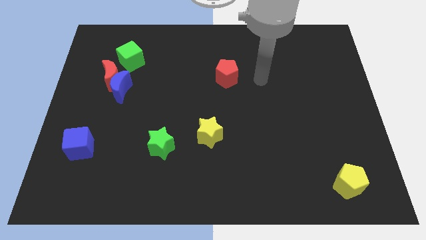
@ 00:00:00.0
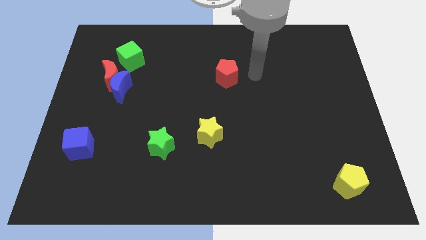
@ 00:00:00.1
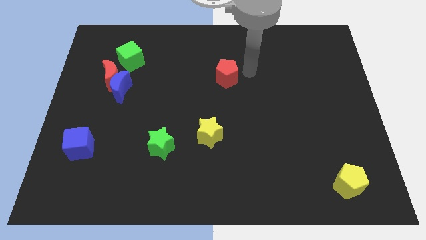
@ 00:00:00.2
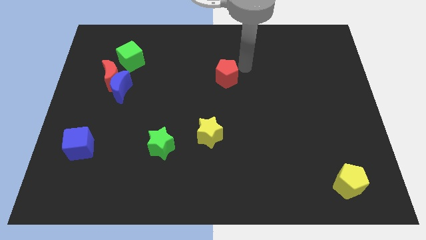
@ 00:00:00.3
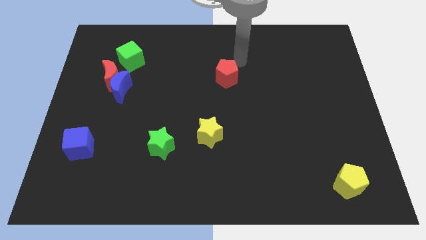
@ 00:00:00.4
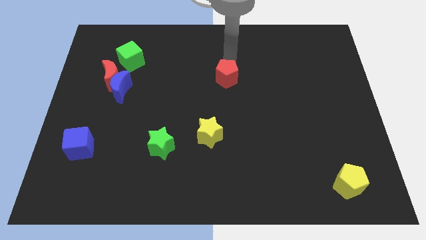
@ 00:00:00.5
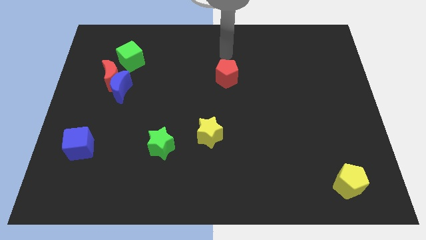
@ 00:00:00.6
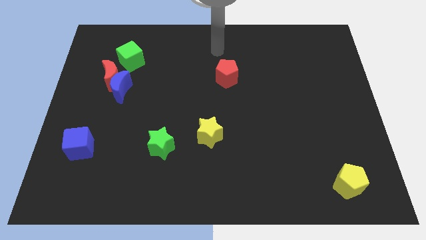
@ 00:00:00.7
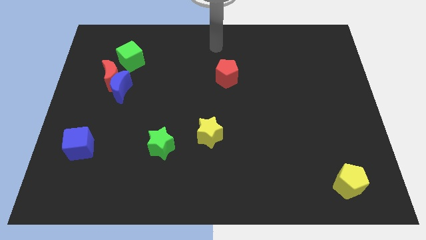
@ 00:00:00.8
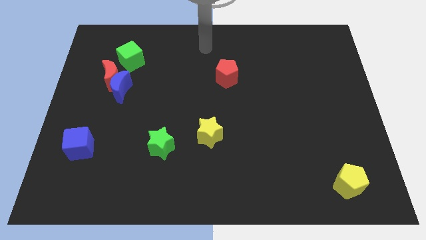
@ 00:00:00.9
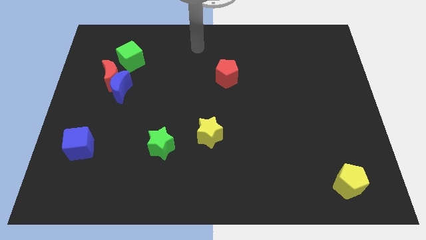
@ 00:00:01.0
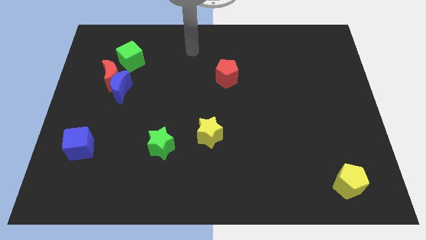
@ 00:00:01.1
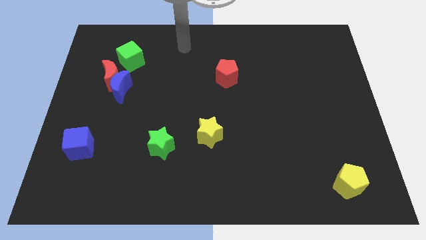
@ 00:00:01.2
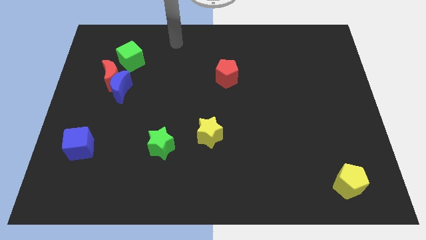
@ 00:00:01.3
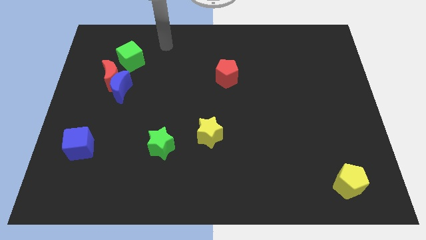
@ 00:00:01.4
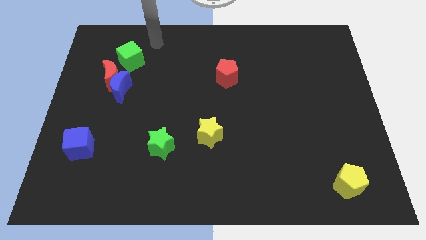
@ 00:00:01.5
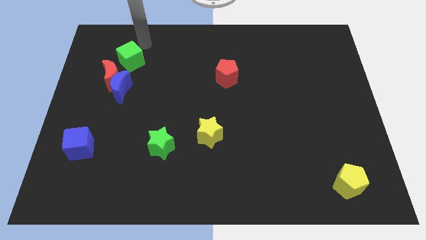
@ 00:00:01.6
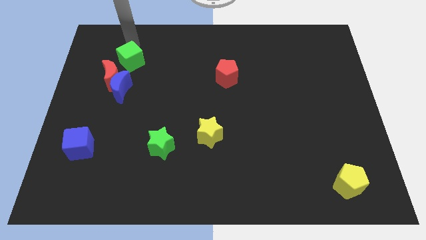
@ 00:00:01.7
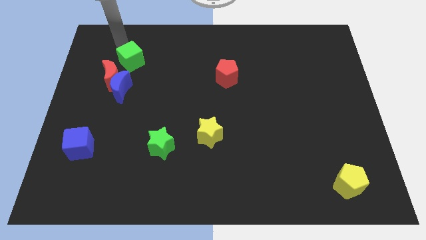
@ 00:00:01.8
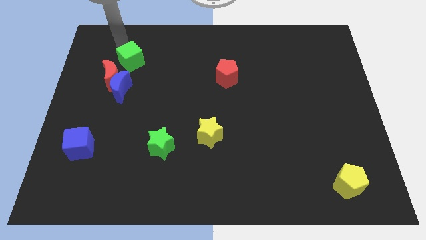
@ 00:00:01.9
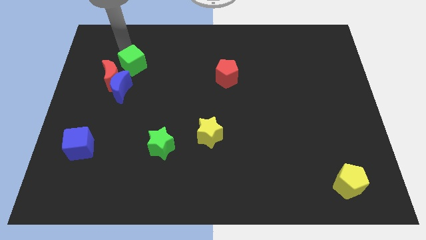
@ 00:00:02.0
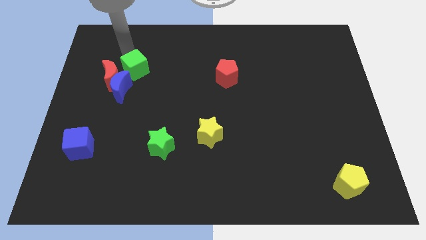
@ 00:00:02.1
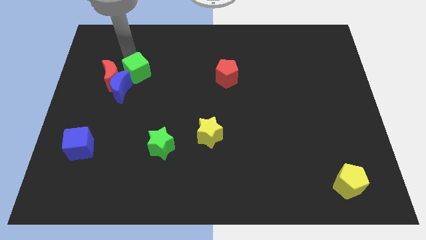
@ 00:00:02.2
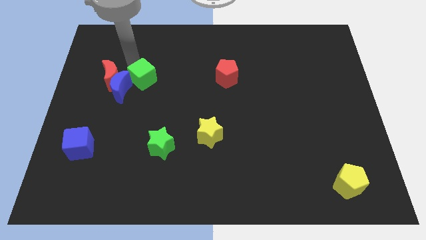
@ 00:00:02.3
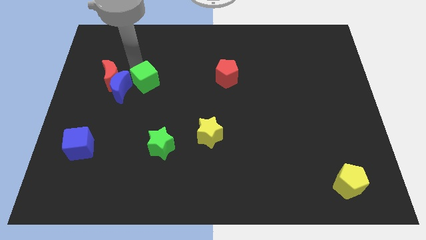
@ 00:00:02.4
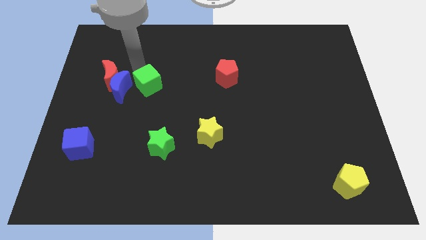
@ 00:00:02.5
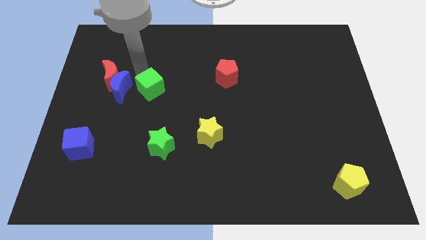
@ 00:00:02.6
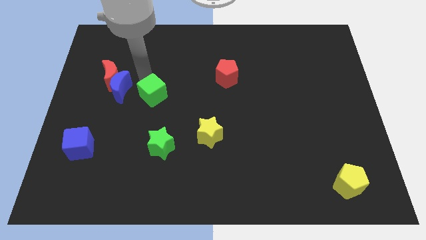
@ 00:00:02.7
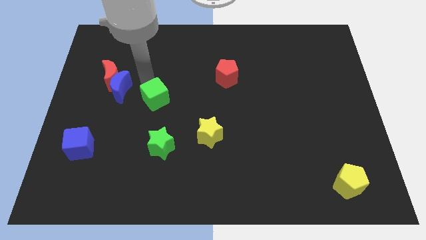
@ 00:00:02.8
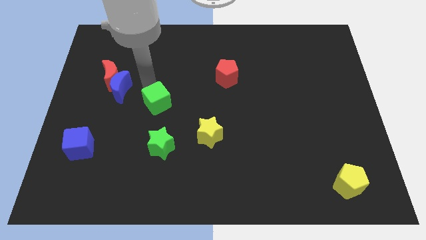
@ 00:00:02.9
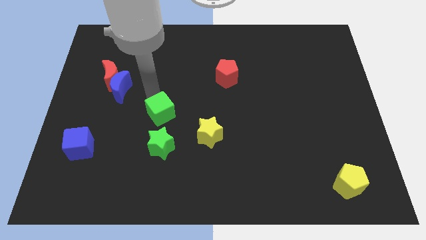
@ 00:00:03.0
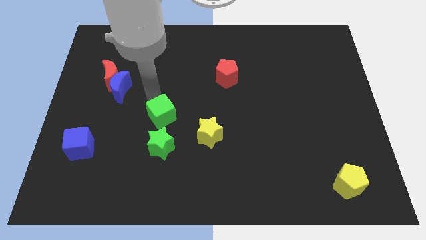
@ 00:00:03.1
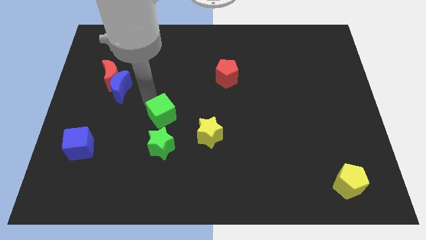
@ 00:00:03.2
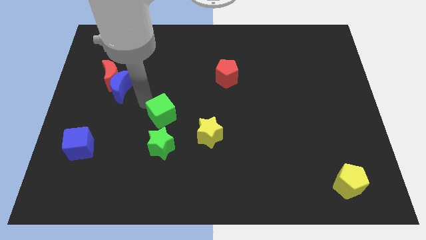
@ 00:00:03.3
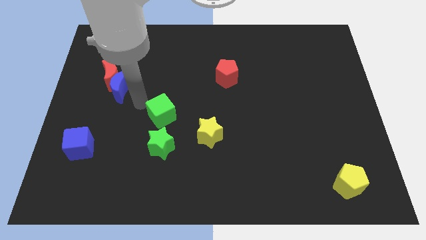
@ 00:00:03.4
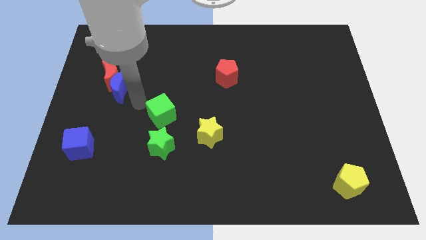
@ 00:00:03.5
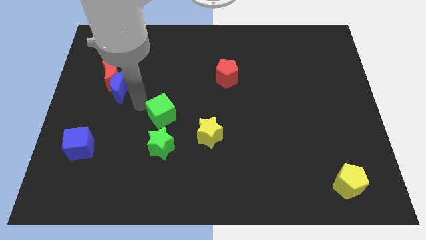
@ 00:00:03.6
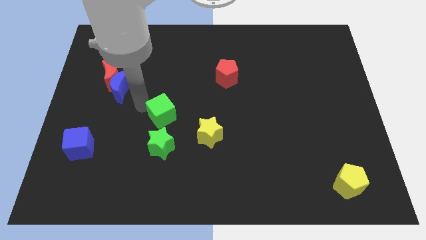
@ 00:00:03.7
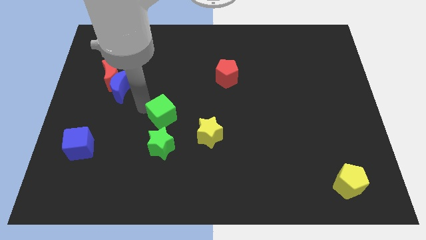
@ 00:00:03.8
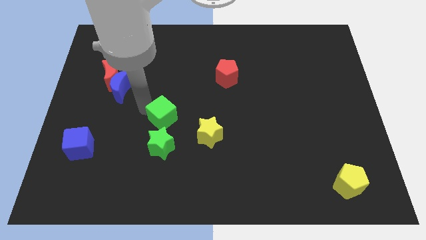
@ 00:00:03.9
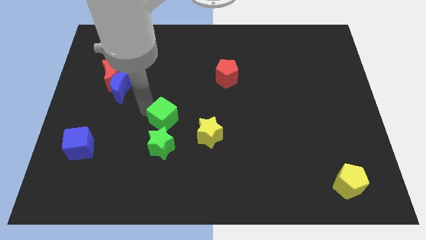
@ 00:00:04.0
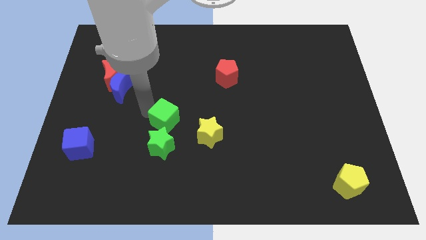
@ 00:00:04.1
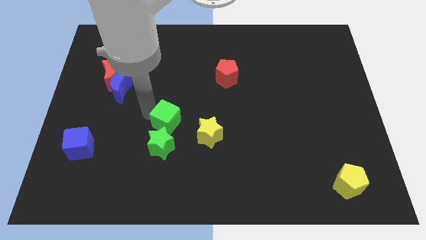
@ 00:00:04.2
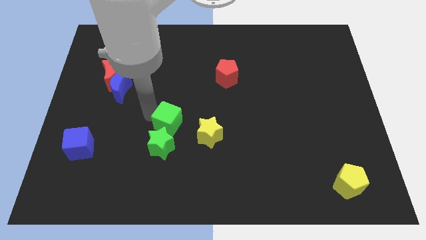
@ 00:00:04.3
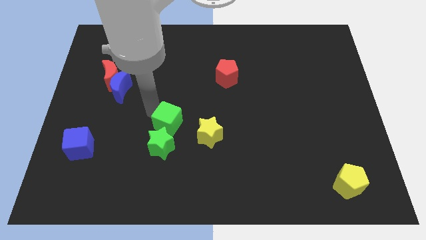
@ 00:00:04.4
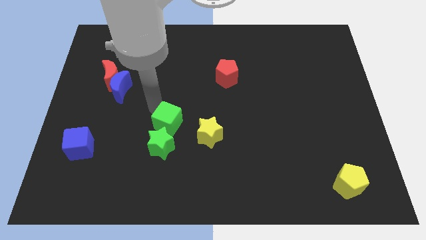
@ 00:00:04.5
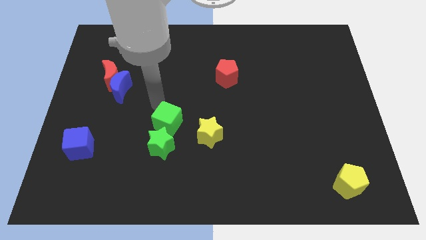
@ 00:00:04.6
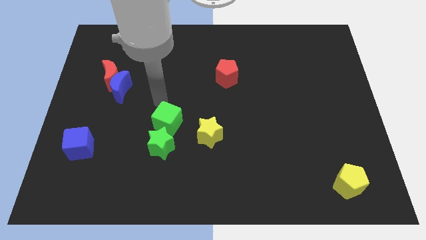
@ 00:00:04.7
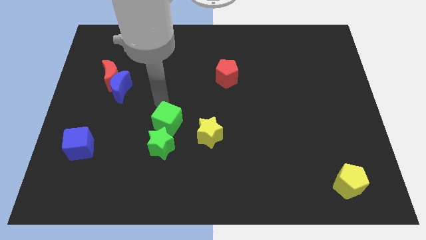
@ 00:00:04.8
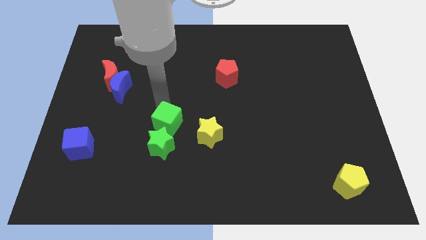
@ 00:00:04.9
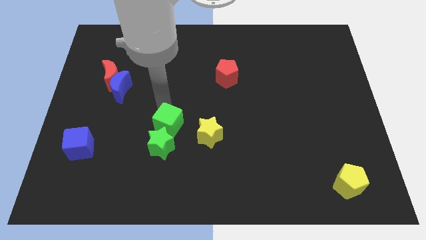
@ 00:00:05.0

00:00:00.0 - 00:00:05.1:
slide the green cube to the green star

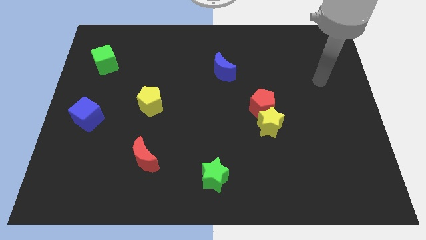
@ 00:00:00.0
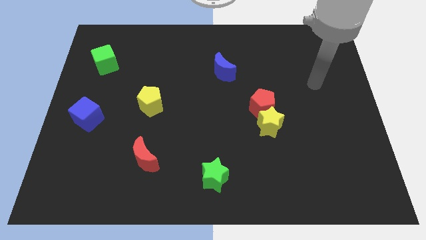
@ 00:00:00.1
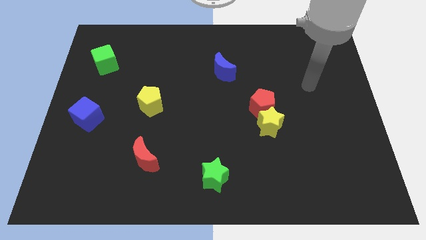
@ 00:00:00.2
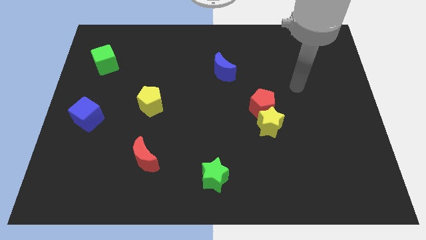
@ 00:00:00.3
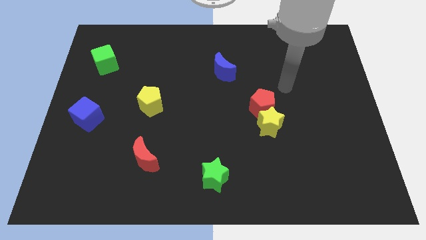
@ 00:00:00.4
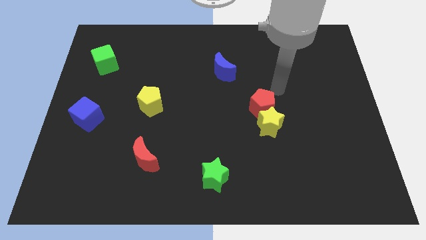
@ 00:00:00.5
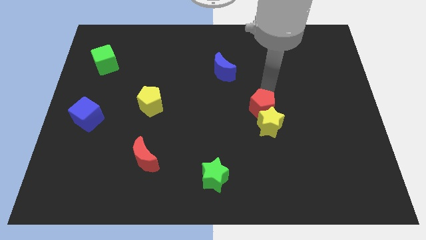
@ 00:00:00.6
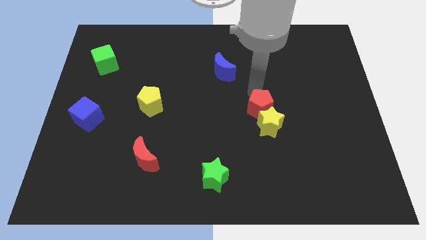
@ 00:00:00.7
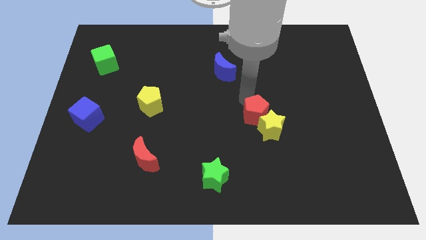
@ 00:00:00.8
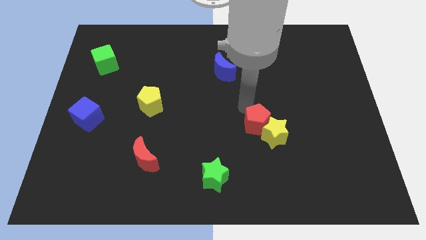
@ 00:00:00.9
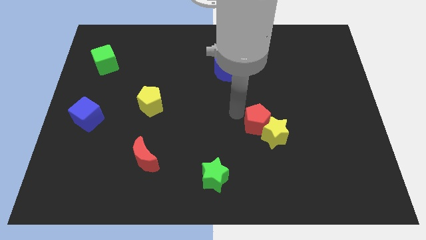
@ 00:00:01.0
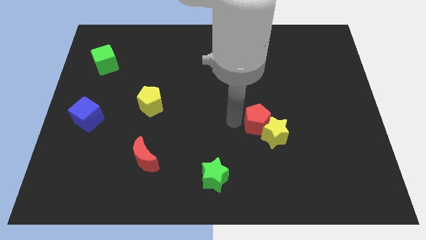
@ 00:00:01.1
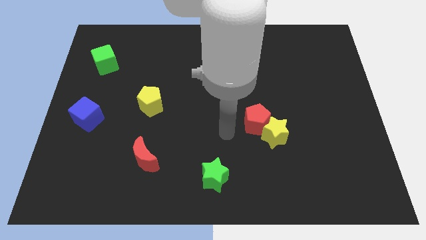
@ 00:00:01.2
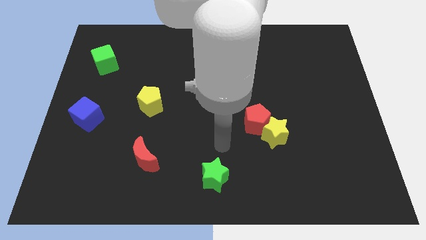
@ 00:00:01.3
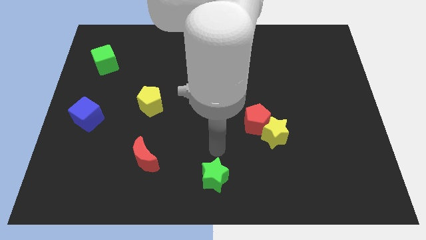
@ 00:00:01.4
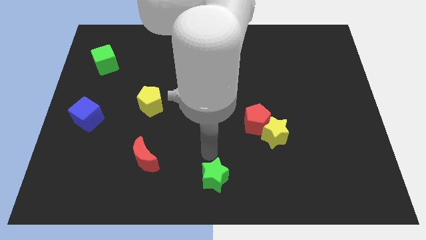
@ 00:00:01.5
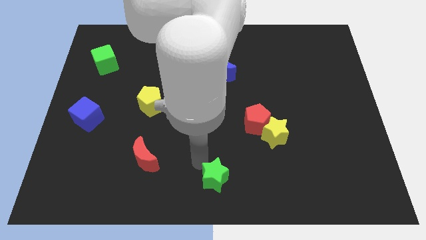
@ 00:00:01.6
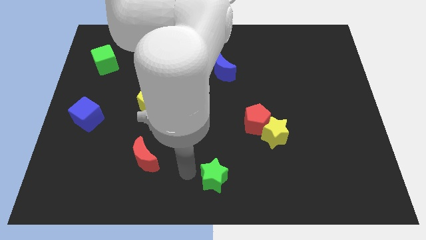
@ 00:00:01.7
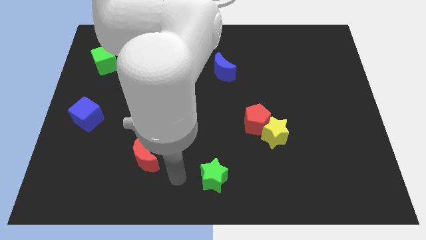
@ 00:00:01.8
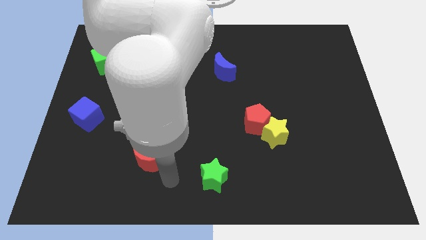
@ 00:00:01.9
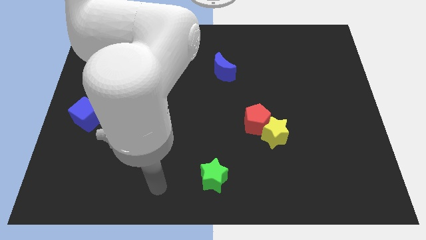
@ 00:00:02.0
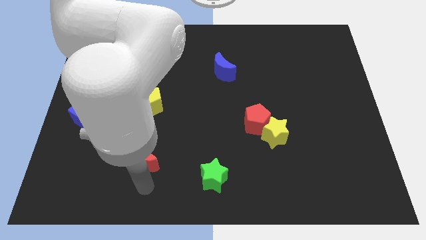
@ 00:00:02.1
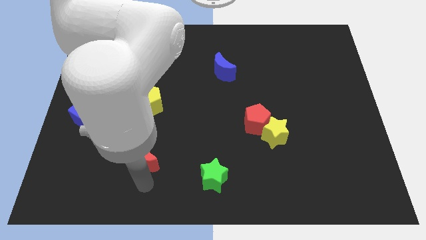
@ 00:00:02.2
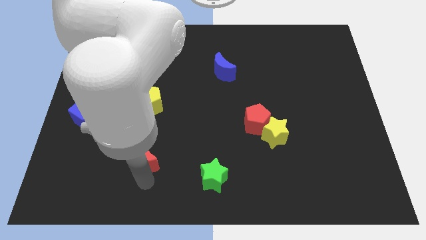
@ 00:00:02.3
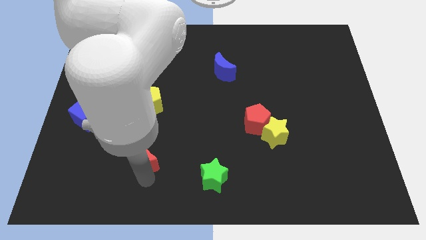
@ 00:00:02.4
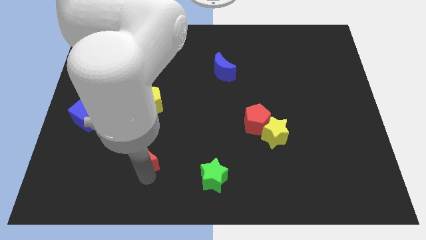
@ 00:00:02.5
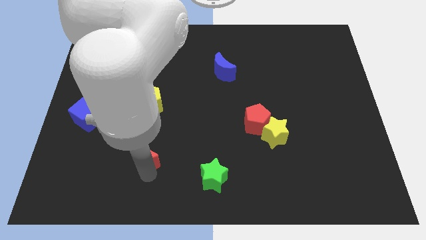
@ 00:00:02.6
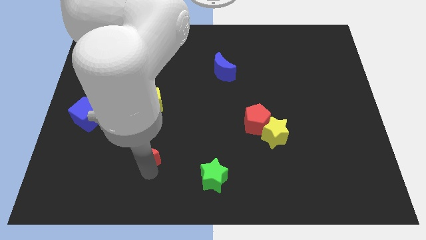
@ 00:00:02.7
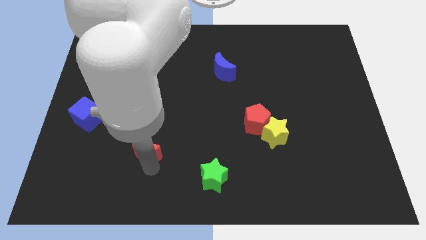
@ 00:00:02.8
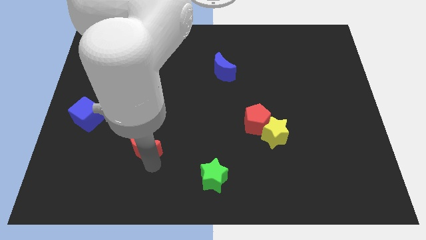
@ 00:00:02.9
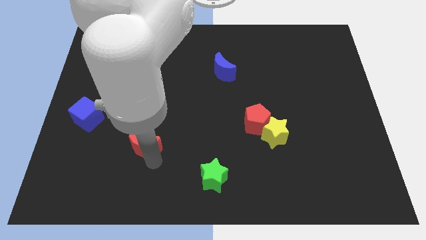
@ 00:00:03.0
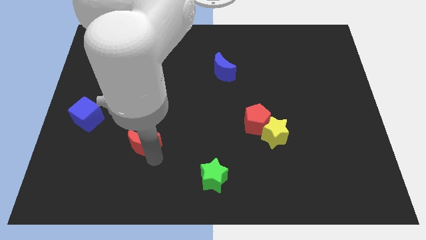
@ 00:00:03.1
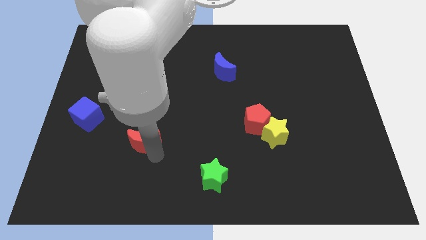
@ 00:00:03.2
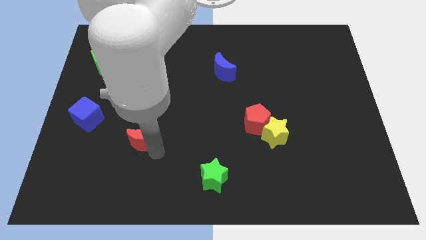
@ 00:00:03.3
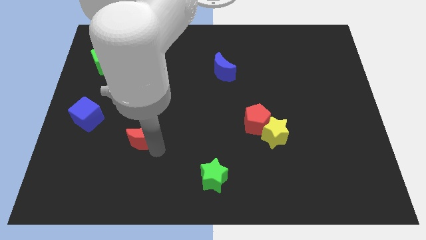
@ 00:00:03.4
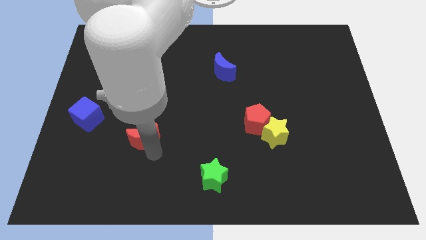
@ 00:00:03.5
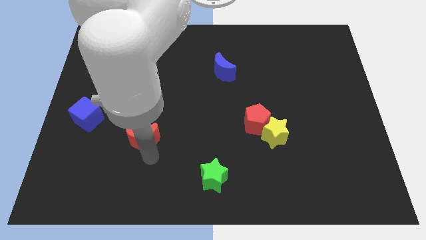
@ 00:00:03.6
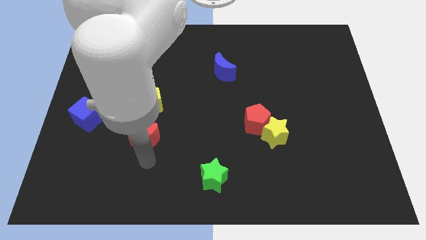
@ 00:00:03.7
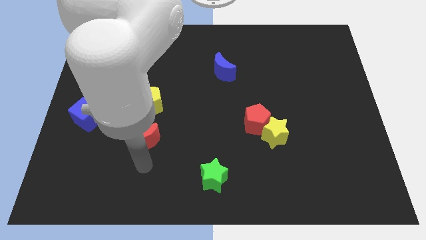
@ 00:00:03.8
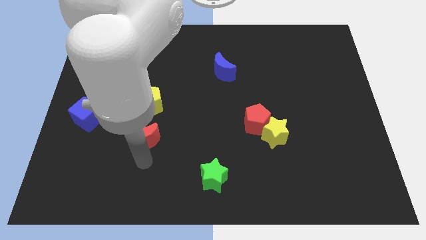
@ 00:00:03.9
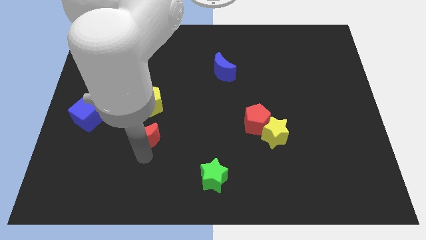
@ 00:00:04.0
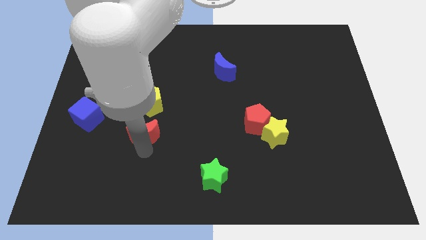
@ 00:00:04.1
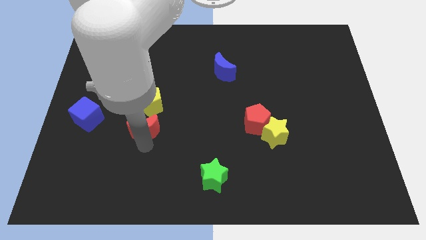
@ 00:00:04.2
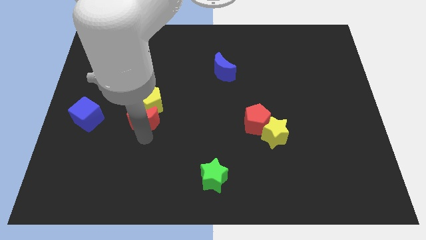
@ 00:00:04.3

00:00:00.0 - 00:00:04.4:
put the red moon towards the yellow pentagon
